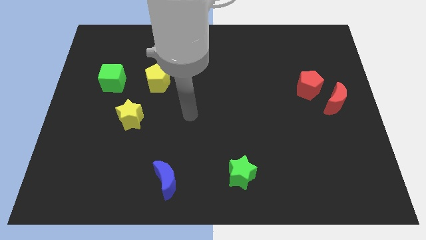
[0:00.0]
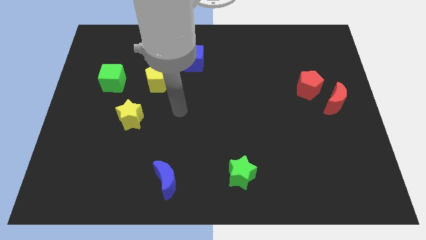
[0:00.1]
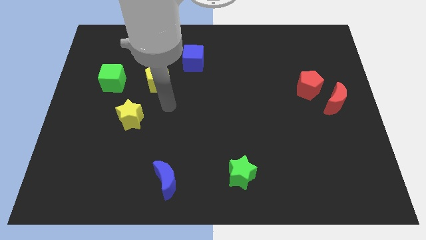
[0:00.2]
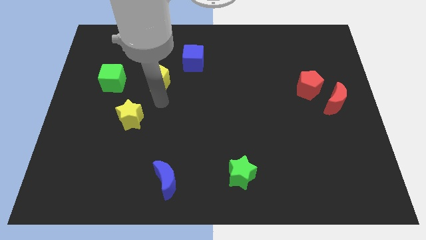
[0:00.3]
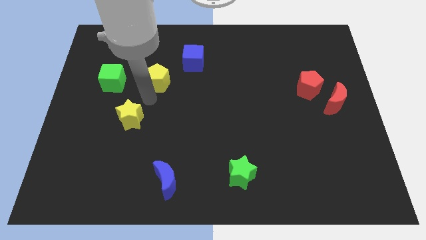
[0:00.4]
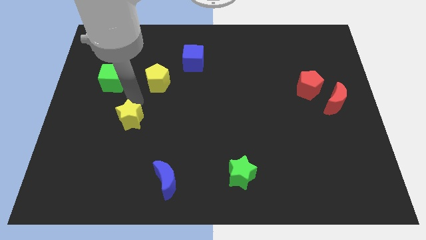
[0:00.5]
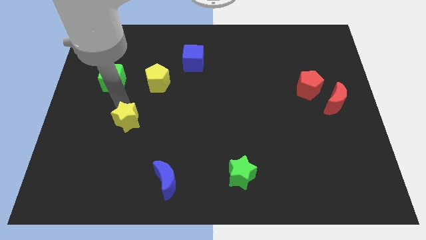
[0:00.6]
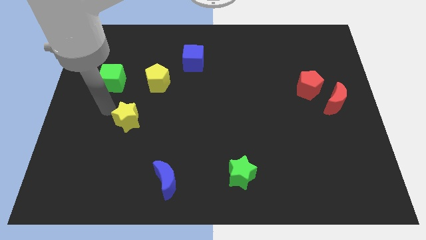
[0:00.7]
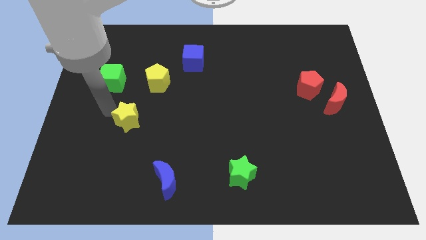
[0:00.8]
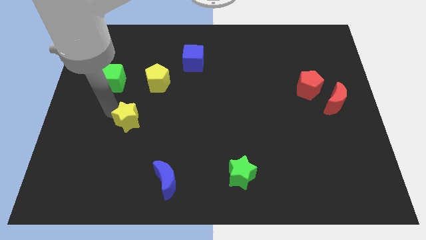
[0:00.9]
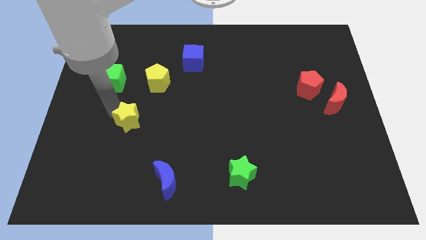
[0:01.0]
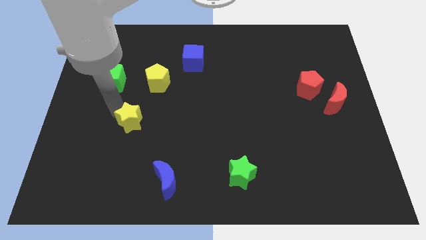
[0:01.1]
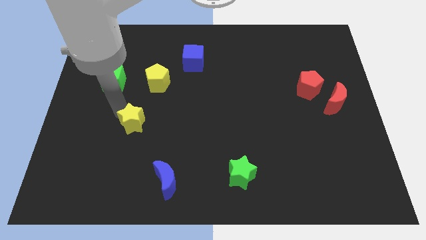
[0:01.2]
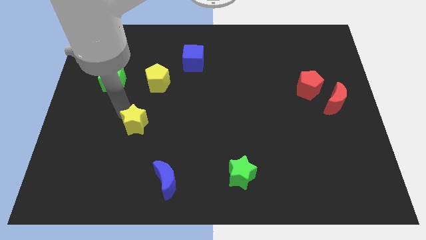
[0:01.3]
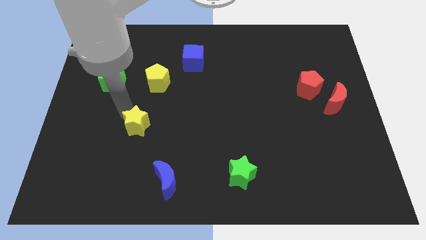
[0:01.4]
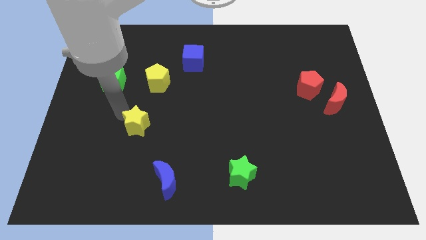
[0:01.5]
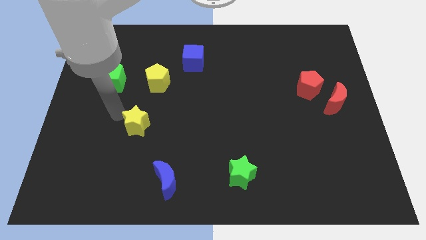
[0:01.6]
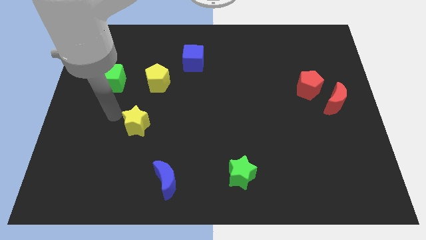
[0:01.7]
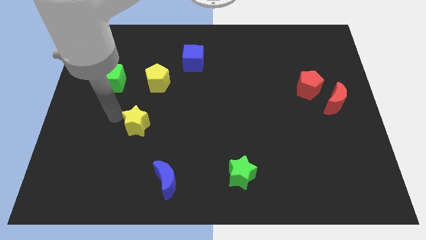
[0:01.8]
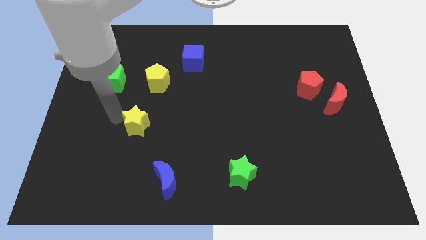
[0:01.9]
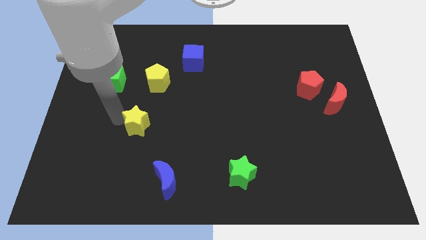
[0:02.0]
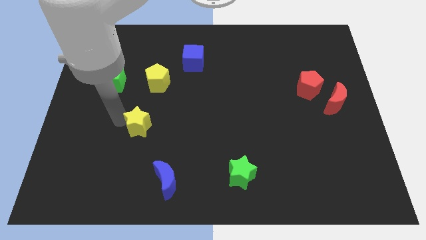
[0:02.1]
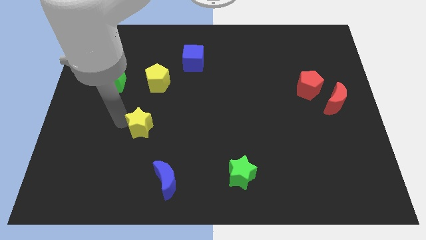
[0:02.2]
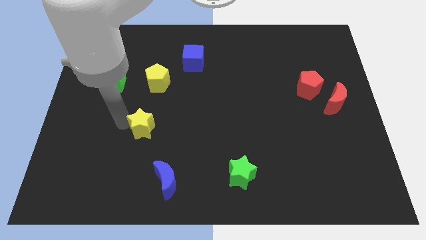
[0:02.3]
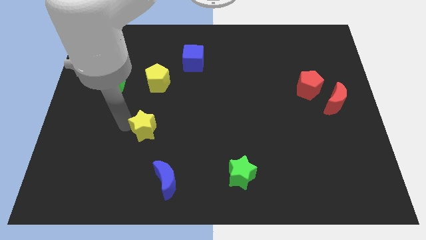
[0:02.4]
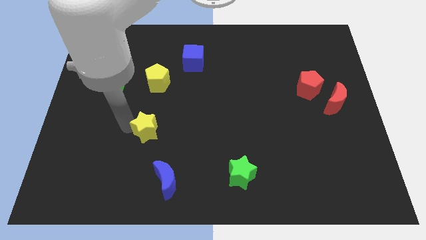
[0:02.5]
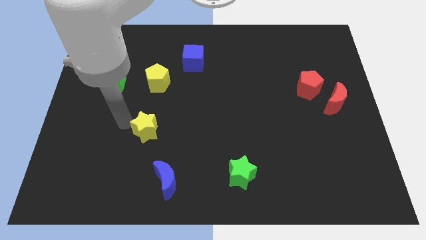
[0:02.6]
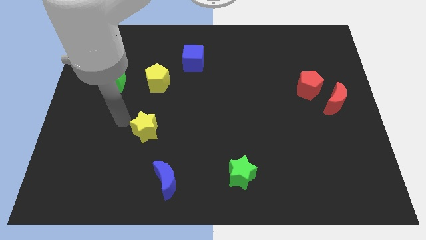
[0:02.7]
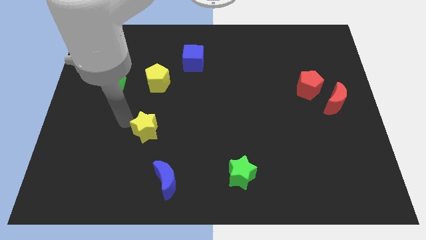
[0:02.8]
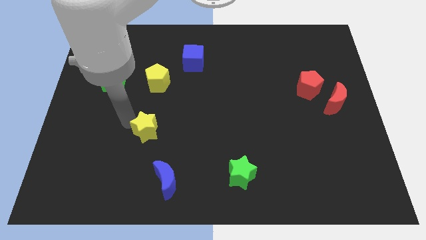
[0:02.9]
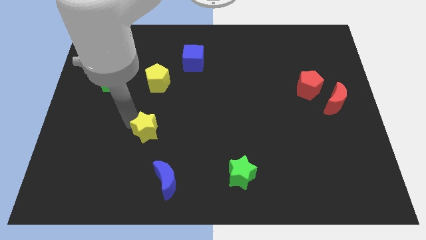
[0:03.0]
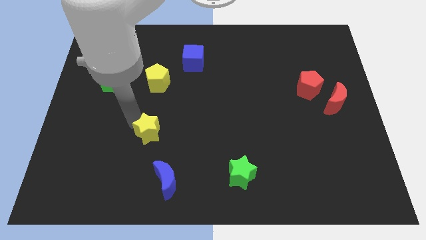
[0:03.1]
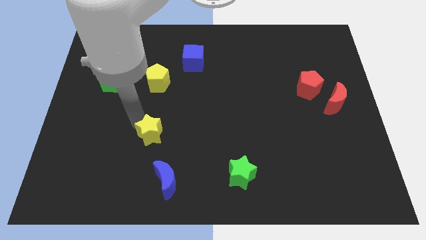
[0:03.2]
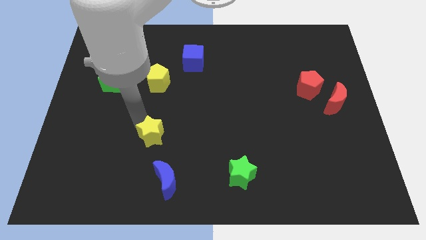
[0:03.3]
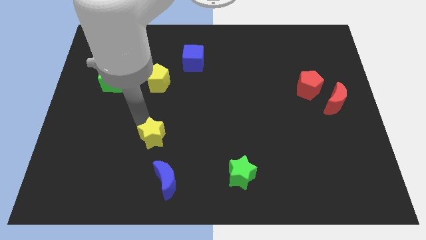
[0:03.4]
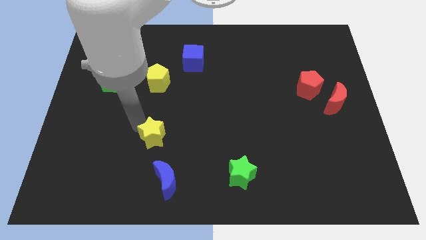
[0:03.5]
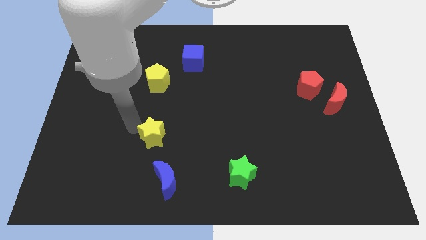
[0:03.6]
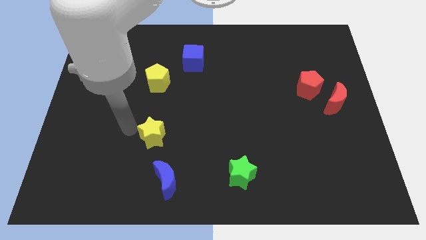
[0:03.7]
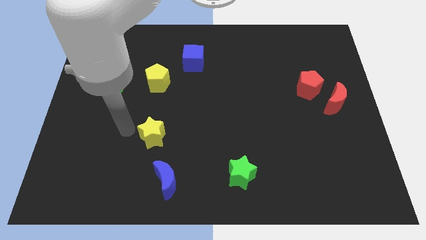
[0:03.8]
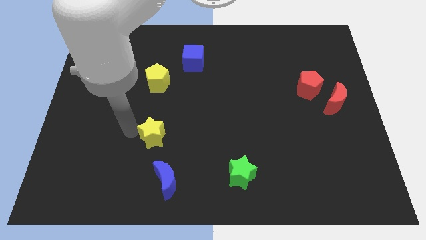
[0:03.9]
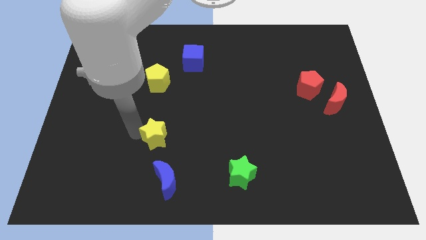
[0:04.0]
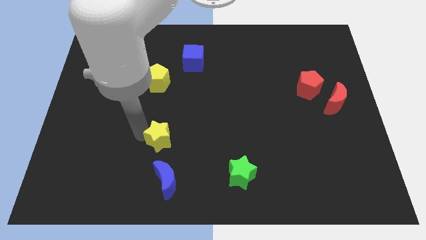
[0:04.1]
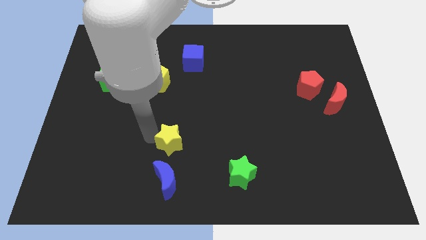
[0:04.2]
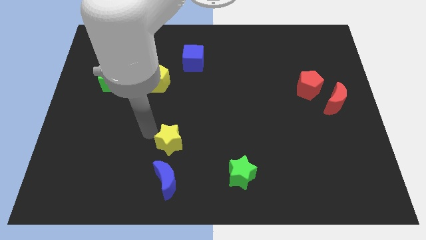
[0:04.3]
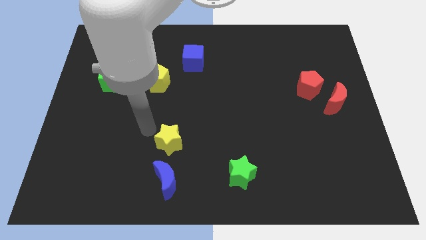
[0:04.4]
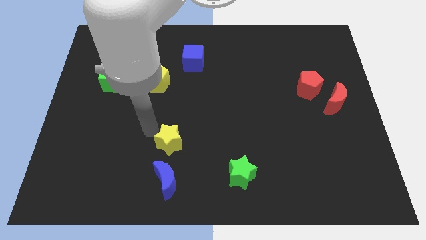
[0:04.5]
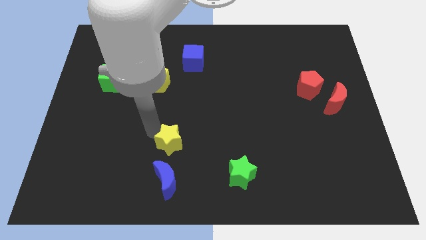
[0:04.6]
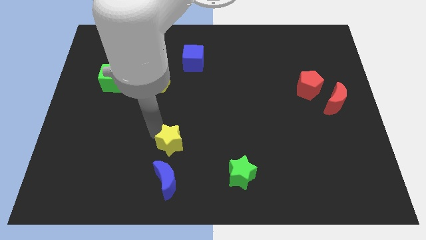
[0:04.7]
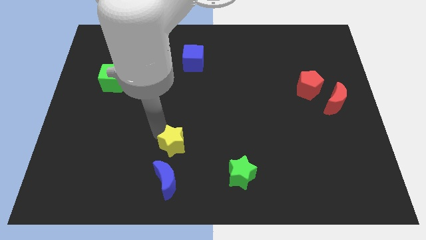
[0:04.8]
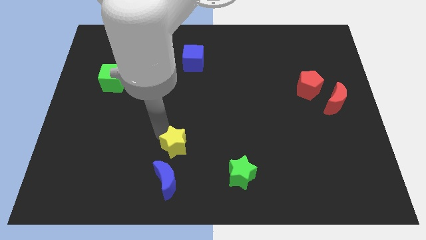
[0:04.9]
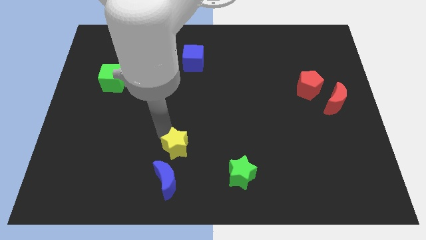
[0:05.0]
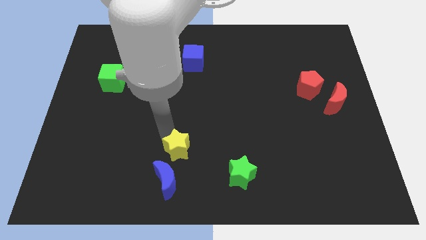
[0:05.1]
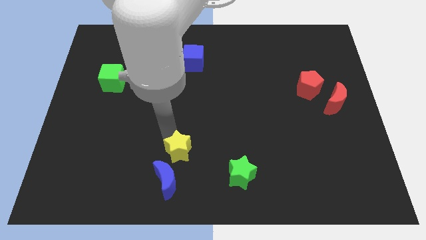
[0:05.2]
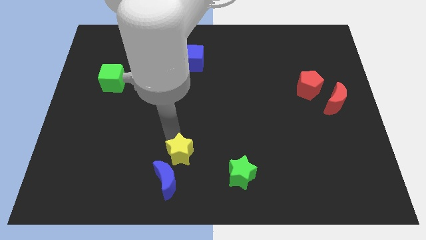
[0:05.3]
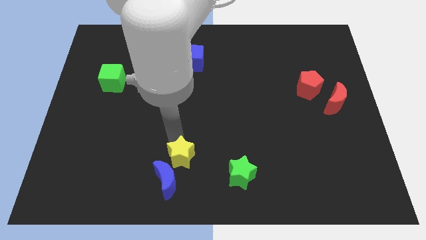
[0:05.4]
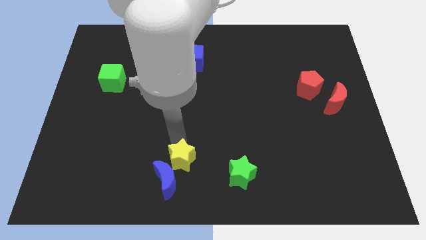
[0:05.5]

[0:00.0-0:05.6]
push the yellow star to the bottom side

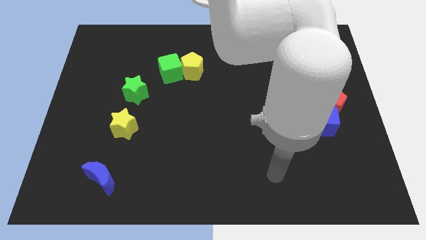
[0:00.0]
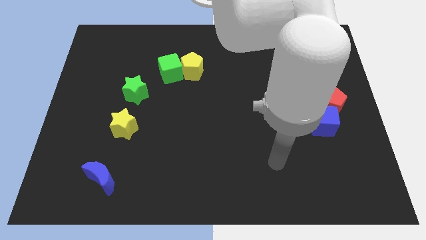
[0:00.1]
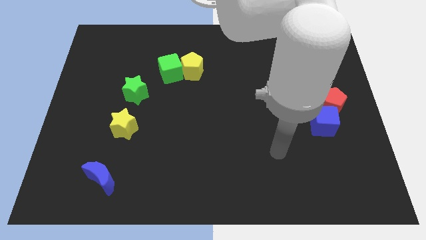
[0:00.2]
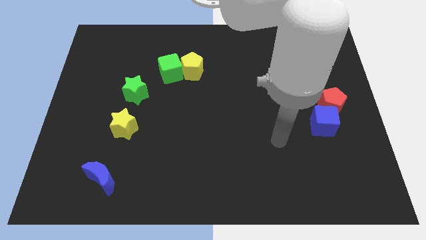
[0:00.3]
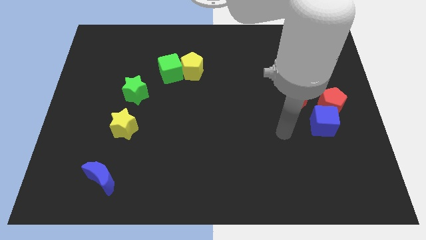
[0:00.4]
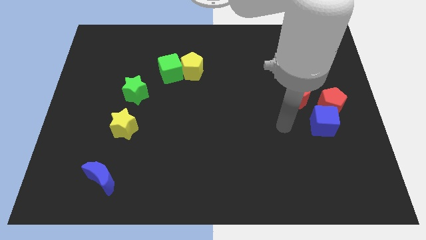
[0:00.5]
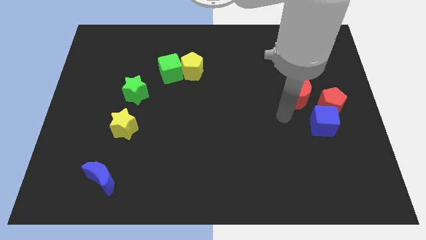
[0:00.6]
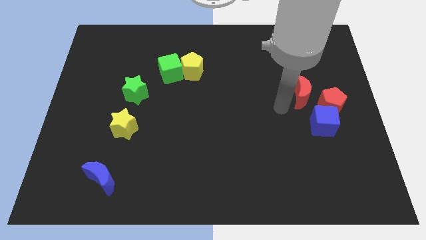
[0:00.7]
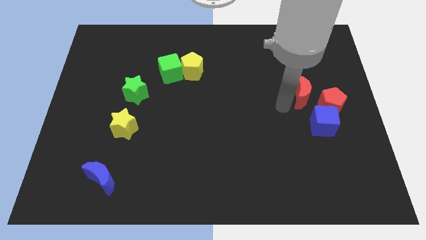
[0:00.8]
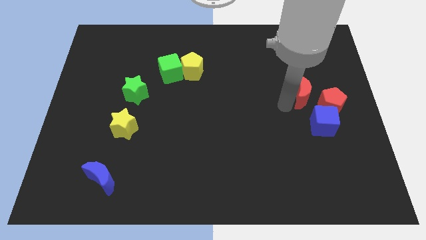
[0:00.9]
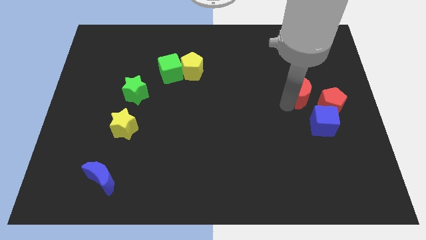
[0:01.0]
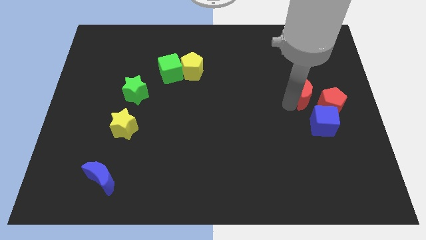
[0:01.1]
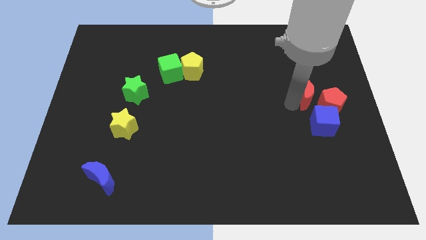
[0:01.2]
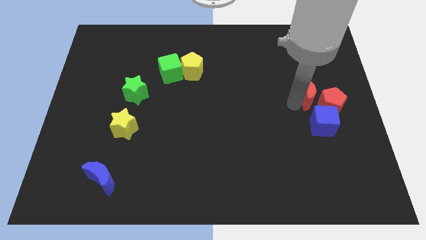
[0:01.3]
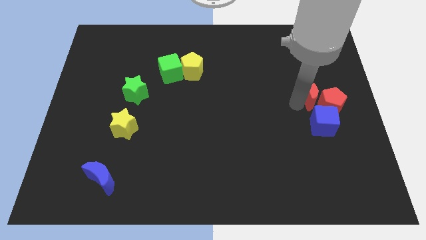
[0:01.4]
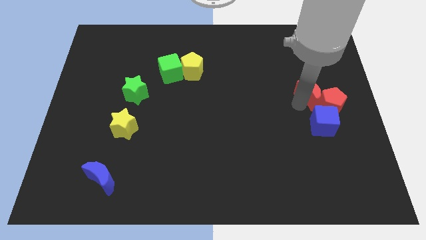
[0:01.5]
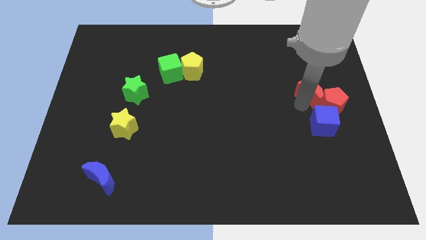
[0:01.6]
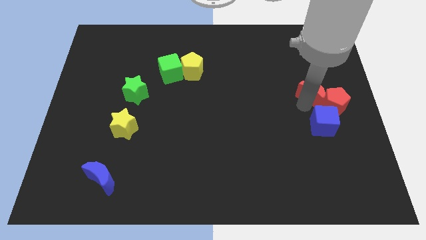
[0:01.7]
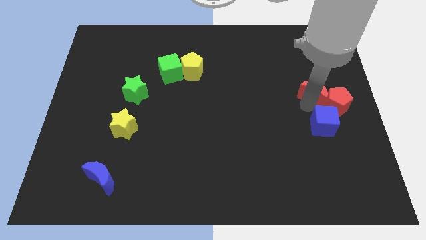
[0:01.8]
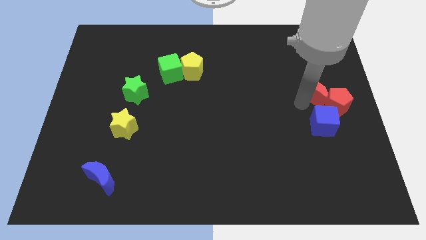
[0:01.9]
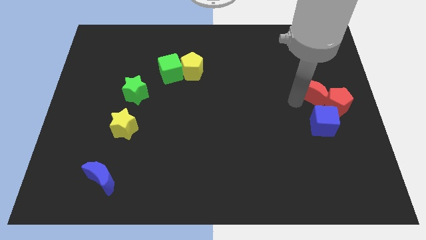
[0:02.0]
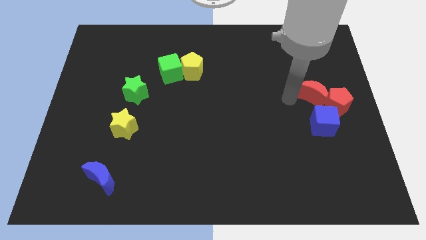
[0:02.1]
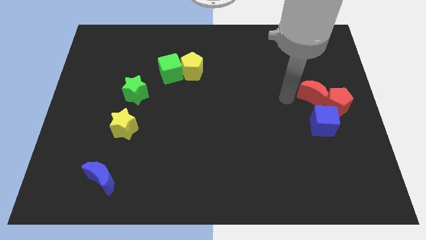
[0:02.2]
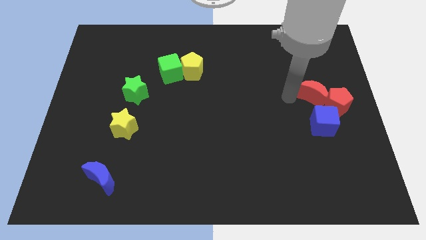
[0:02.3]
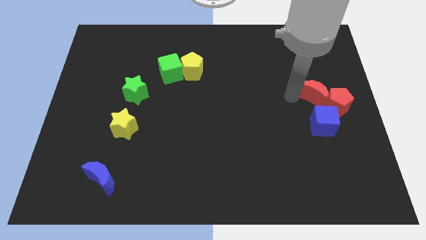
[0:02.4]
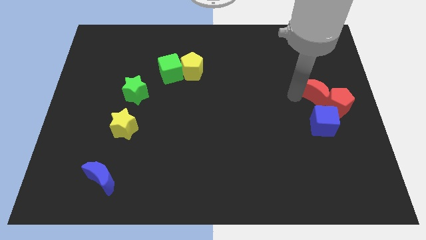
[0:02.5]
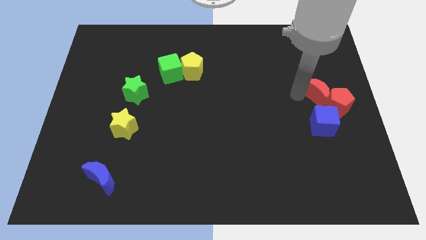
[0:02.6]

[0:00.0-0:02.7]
move the red moon to the center right
